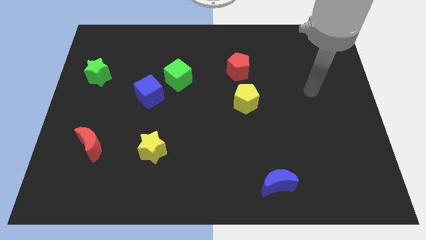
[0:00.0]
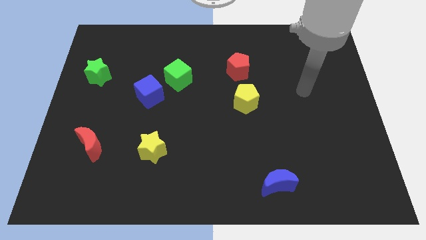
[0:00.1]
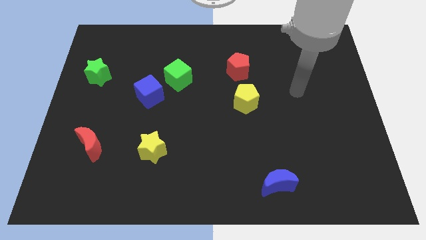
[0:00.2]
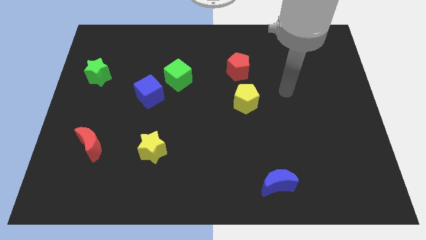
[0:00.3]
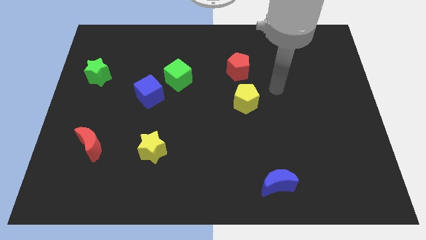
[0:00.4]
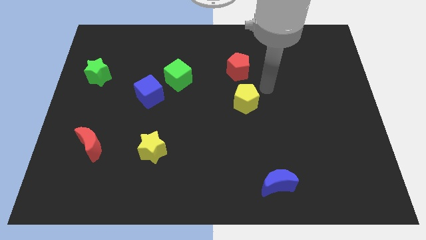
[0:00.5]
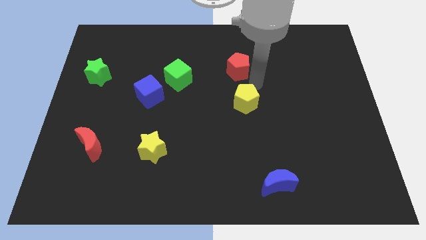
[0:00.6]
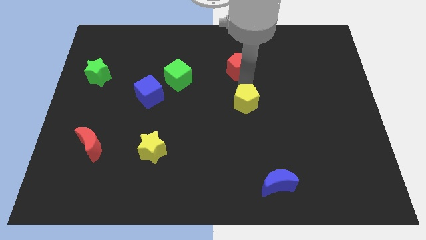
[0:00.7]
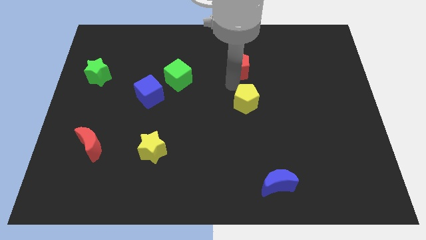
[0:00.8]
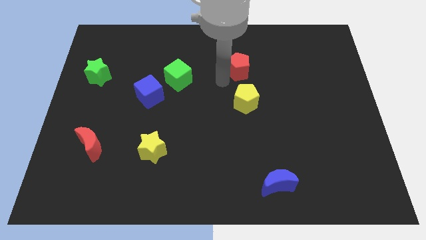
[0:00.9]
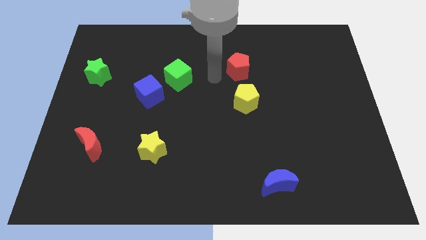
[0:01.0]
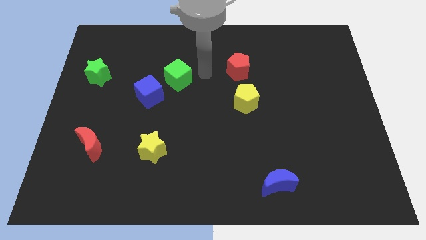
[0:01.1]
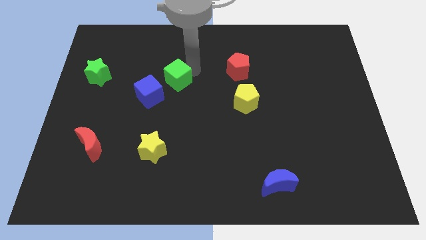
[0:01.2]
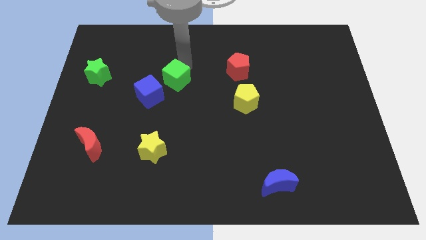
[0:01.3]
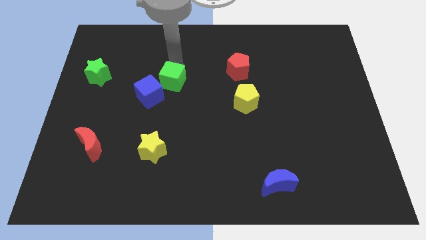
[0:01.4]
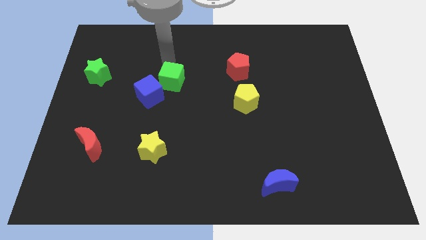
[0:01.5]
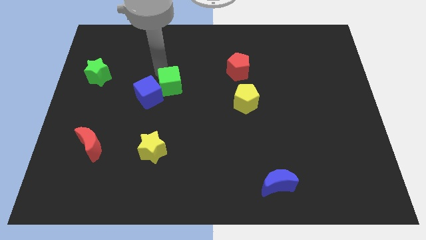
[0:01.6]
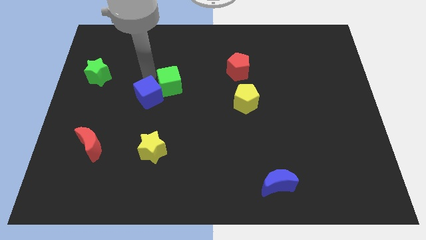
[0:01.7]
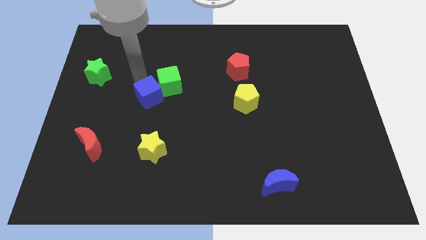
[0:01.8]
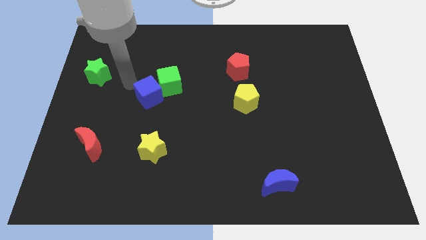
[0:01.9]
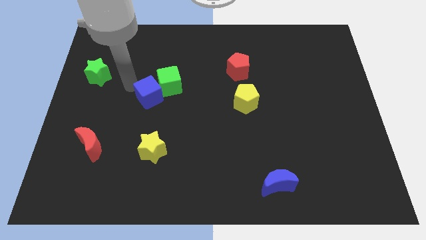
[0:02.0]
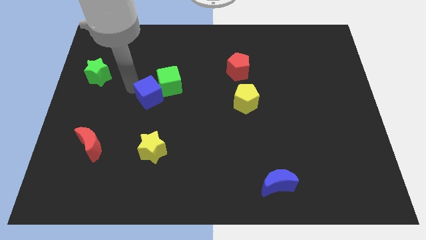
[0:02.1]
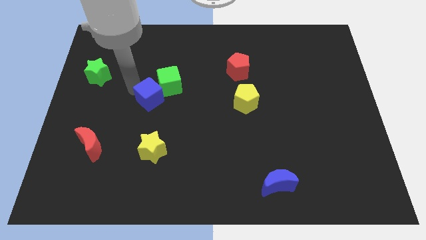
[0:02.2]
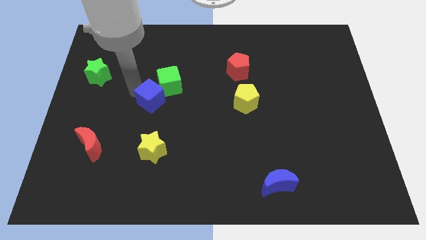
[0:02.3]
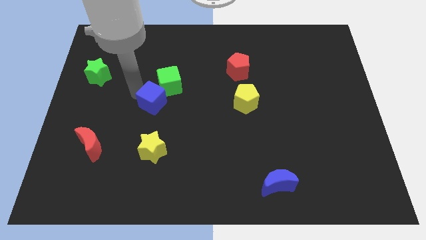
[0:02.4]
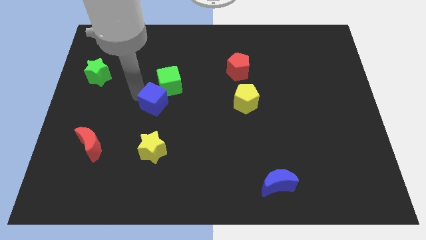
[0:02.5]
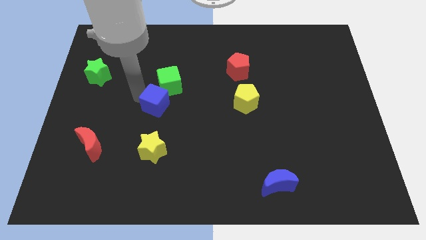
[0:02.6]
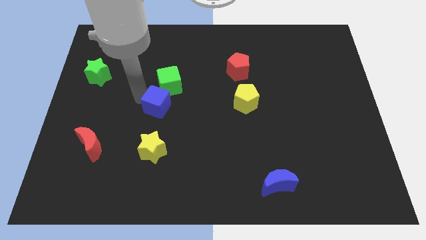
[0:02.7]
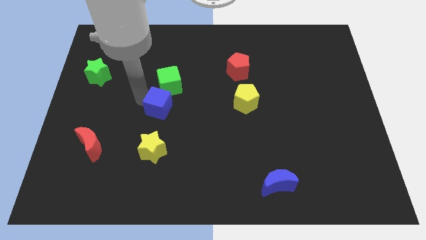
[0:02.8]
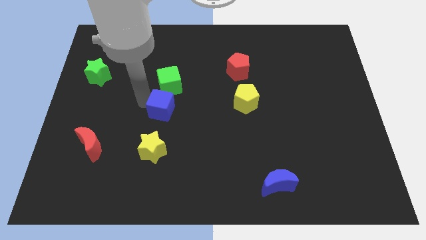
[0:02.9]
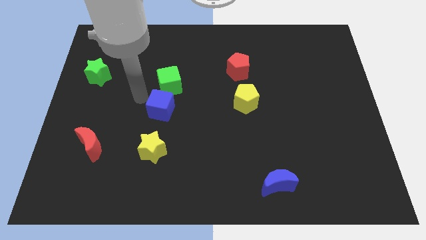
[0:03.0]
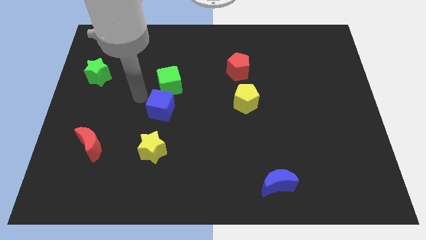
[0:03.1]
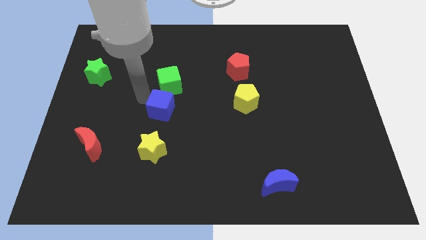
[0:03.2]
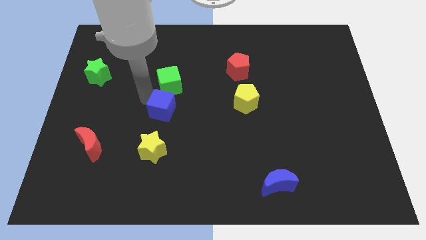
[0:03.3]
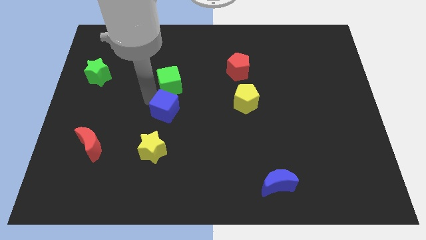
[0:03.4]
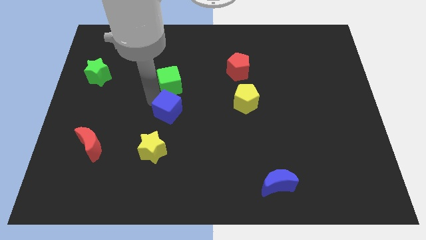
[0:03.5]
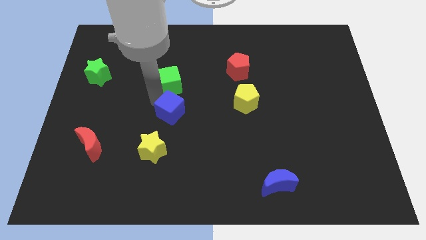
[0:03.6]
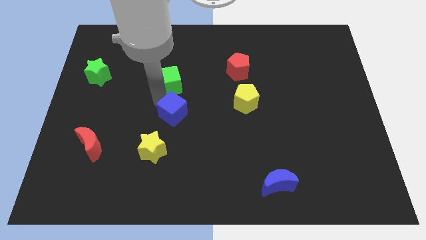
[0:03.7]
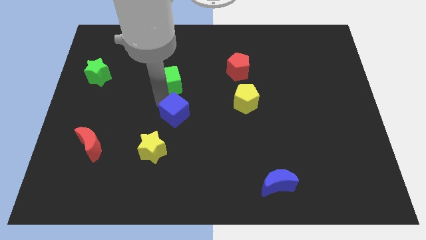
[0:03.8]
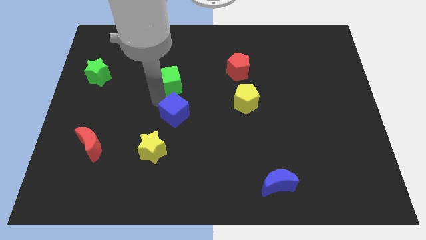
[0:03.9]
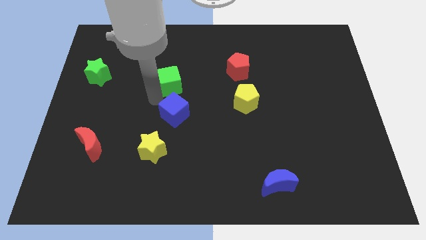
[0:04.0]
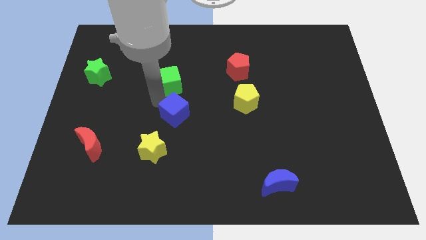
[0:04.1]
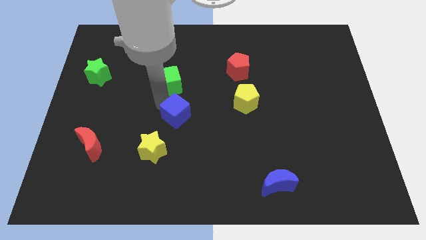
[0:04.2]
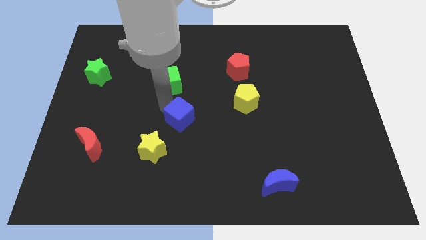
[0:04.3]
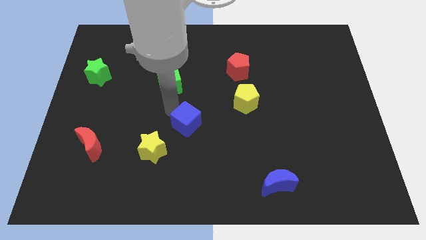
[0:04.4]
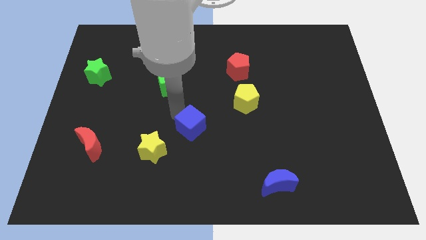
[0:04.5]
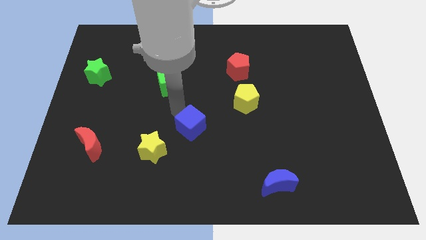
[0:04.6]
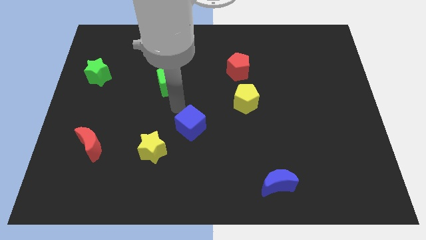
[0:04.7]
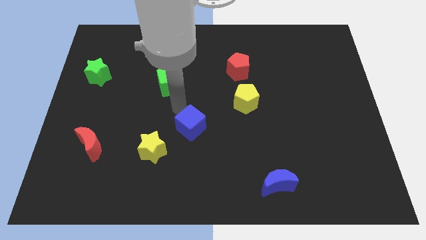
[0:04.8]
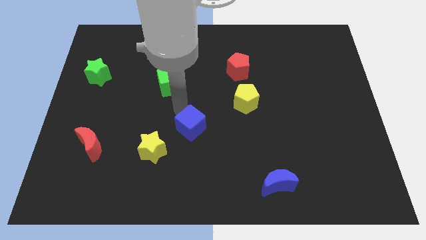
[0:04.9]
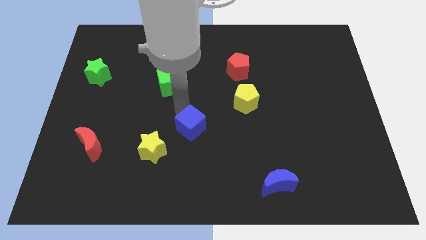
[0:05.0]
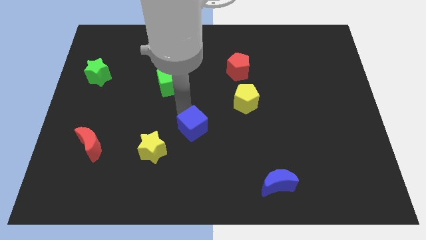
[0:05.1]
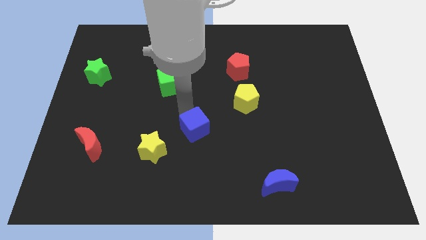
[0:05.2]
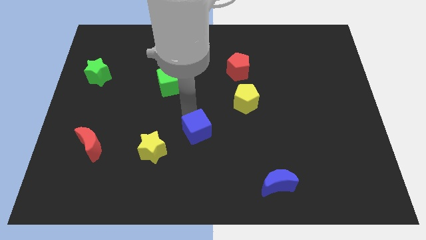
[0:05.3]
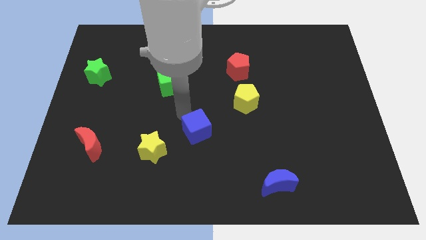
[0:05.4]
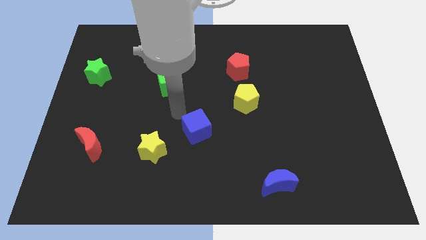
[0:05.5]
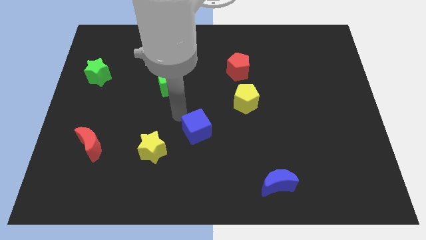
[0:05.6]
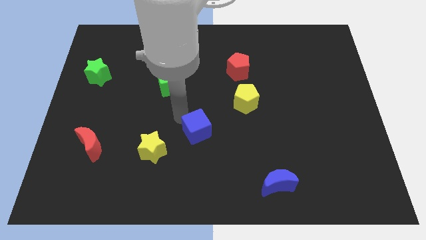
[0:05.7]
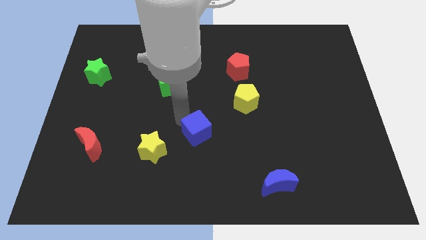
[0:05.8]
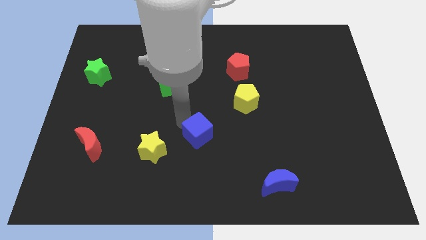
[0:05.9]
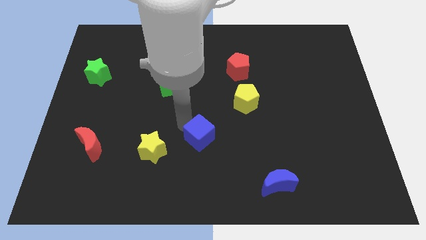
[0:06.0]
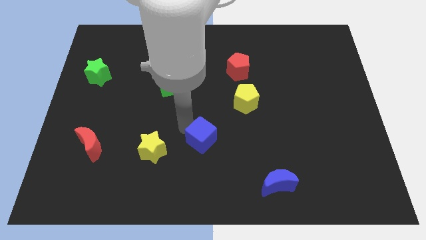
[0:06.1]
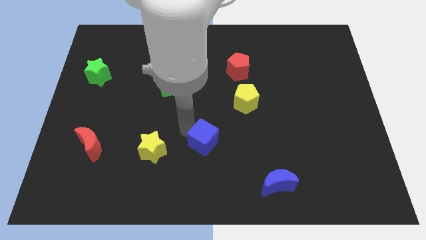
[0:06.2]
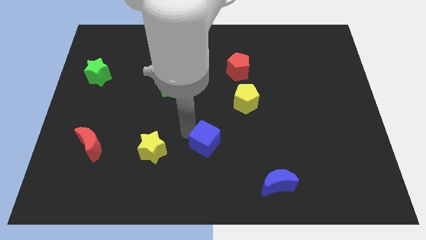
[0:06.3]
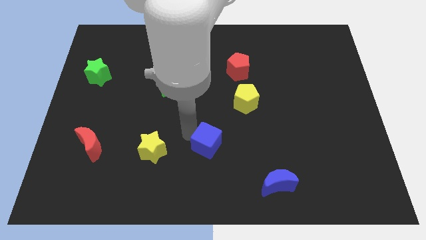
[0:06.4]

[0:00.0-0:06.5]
push the blue cube diagonally downwards and right

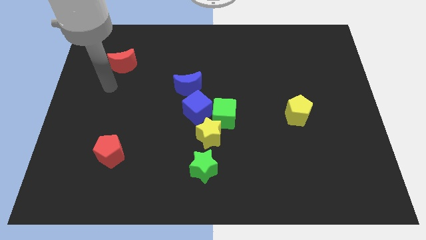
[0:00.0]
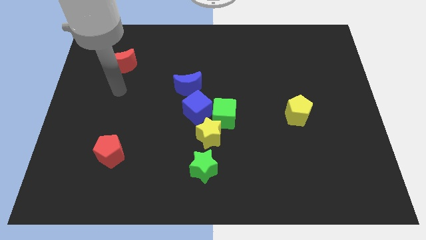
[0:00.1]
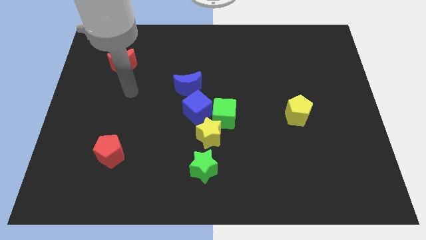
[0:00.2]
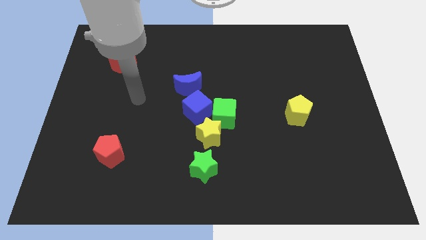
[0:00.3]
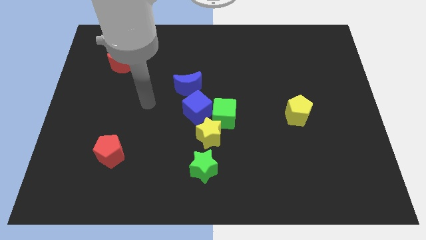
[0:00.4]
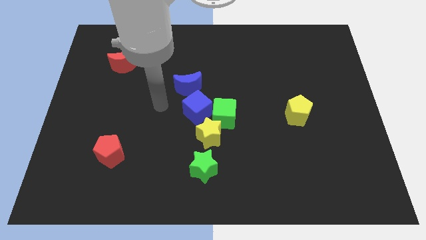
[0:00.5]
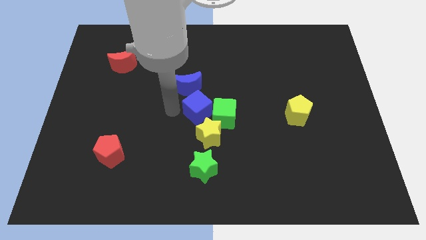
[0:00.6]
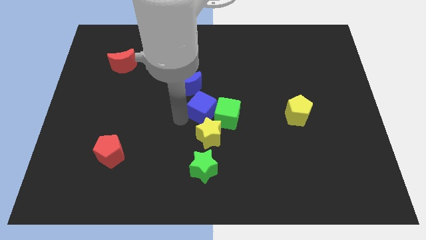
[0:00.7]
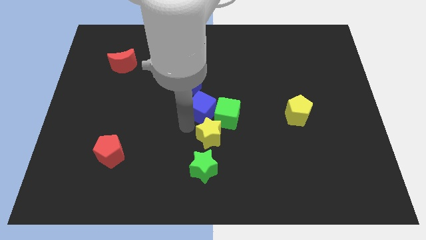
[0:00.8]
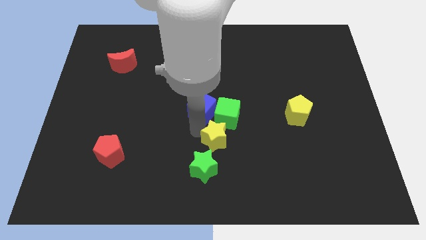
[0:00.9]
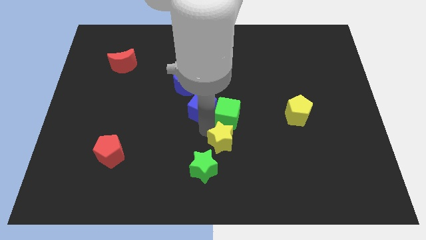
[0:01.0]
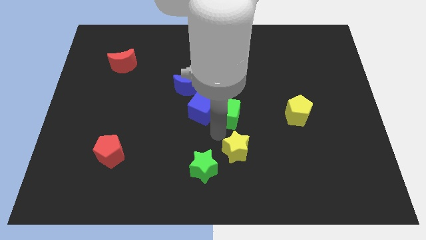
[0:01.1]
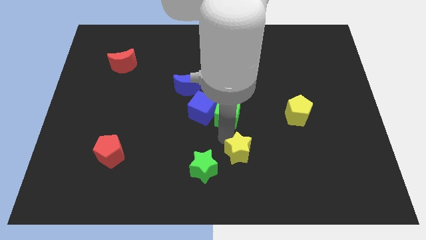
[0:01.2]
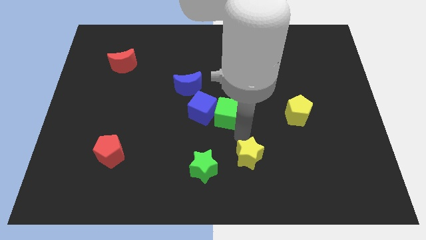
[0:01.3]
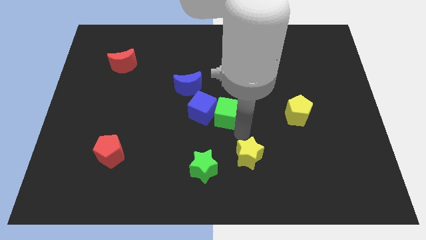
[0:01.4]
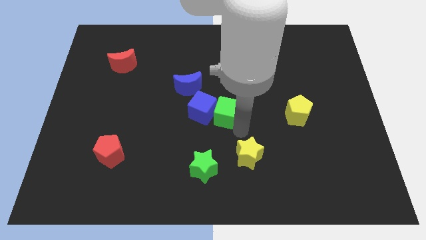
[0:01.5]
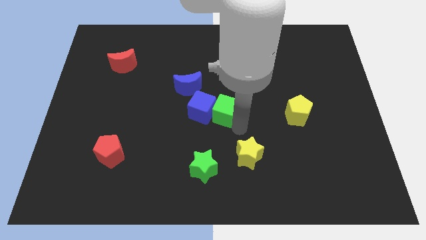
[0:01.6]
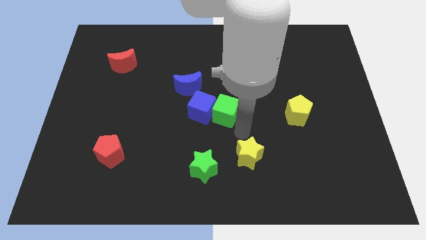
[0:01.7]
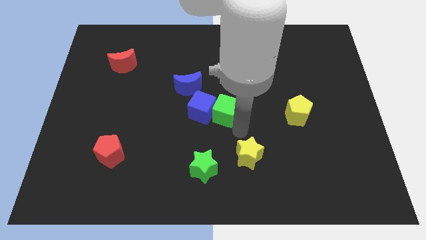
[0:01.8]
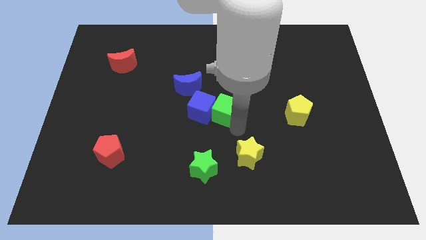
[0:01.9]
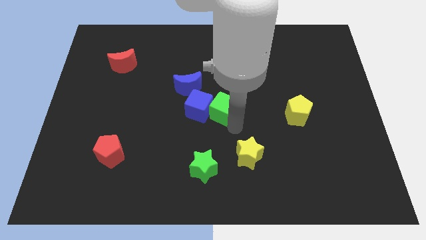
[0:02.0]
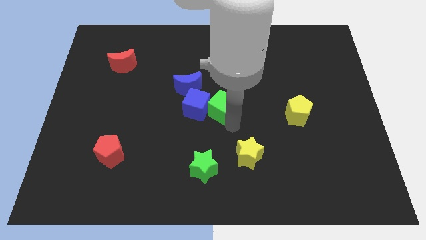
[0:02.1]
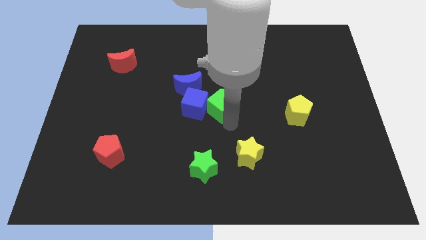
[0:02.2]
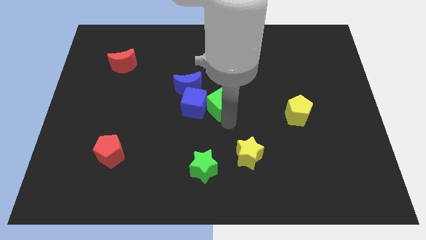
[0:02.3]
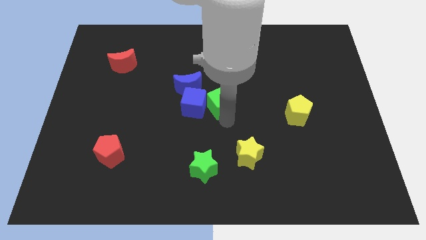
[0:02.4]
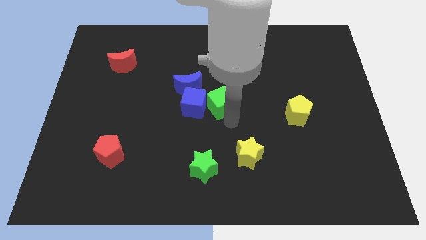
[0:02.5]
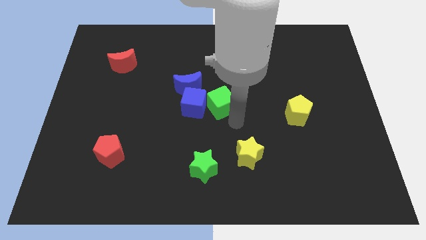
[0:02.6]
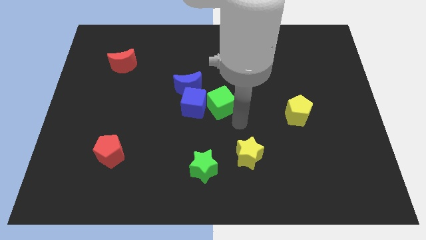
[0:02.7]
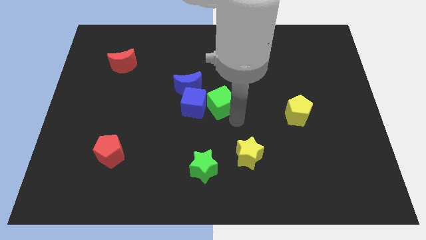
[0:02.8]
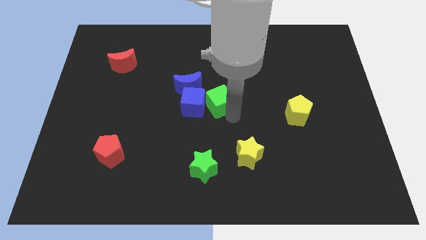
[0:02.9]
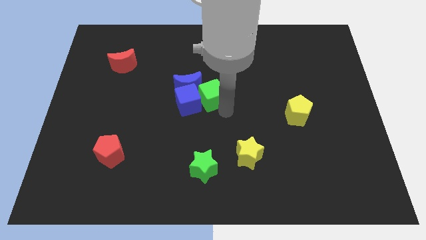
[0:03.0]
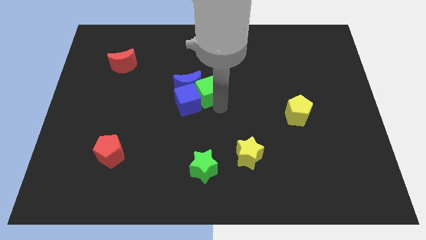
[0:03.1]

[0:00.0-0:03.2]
slide the green cube diagonally upwards and left somewhat
